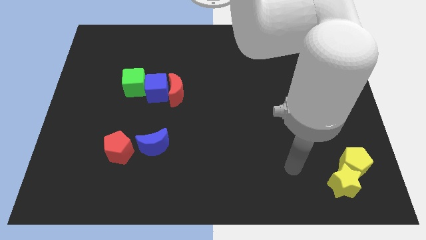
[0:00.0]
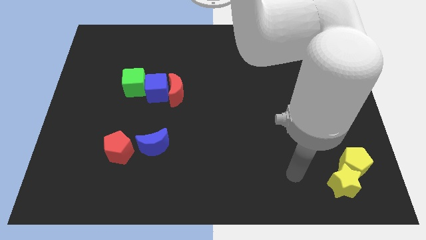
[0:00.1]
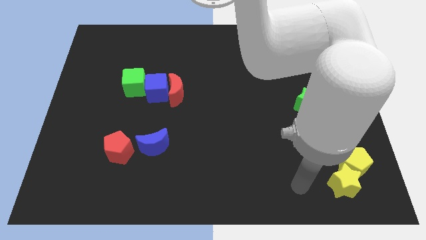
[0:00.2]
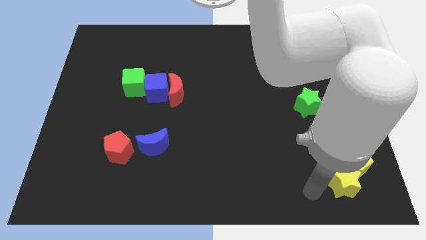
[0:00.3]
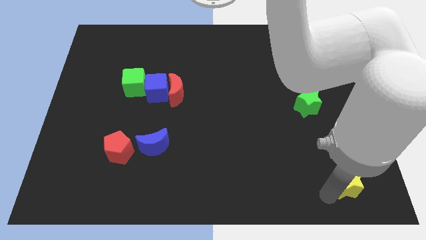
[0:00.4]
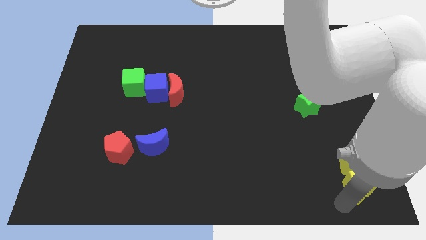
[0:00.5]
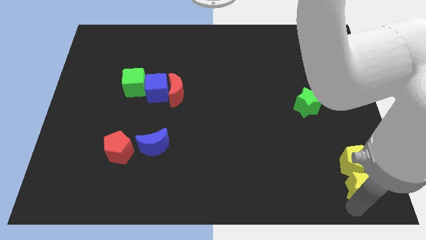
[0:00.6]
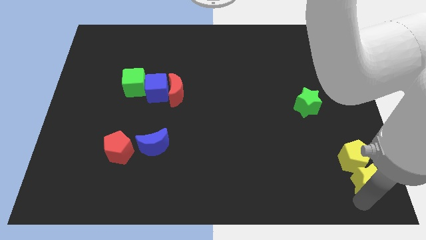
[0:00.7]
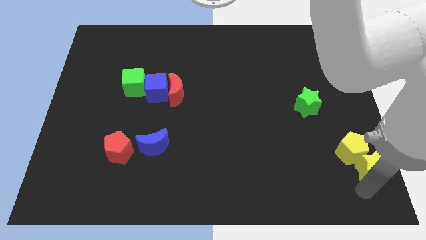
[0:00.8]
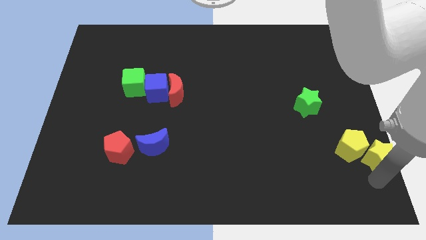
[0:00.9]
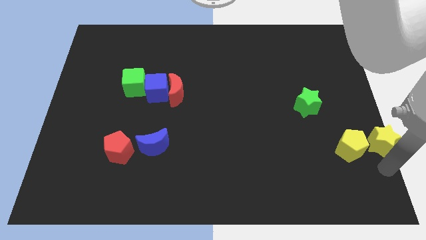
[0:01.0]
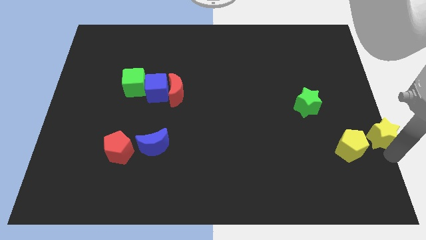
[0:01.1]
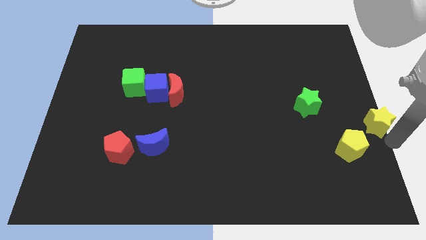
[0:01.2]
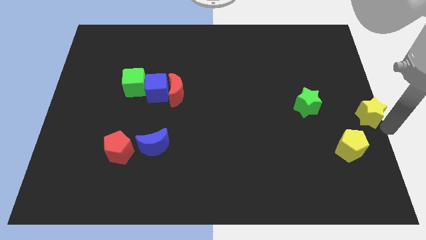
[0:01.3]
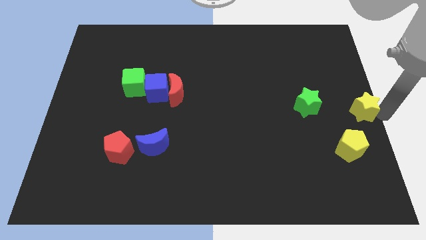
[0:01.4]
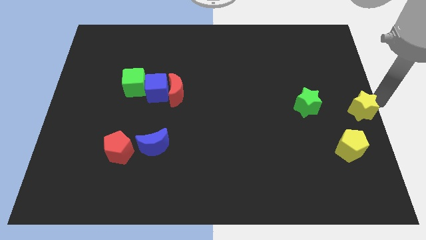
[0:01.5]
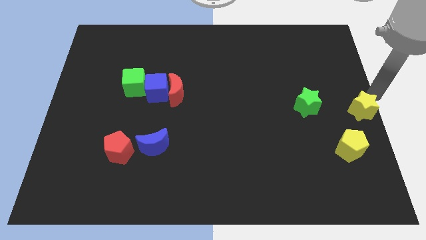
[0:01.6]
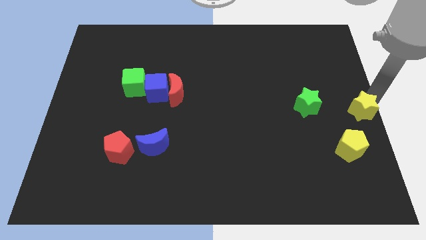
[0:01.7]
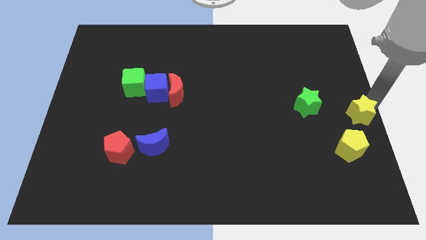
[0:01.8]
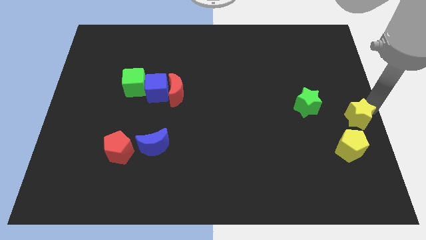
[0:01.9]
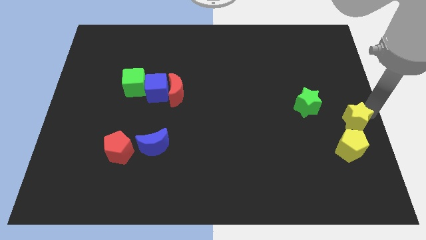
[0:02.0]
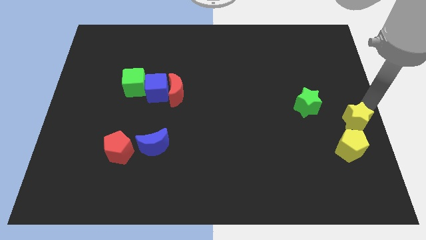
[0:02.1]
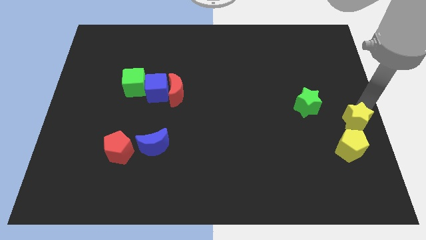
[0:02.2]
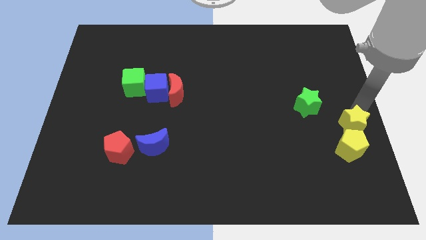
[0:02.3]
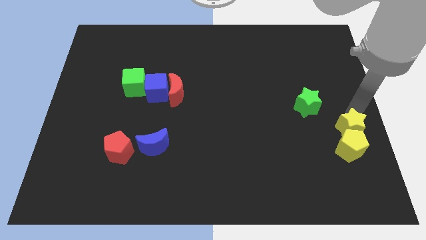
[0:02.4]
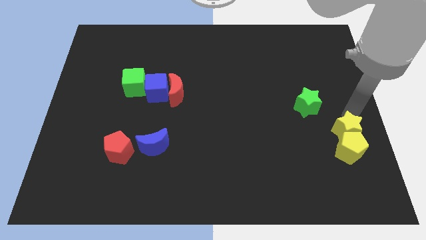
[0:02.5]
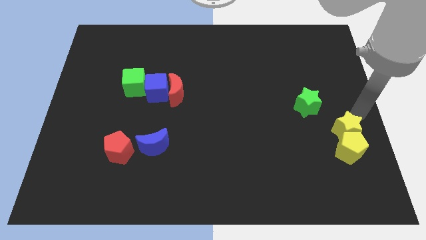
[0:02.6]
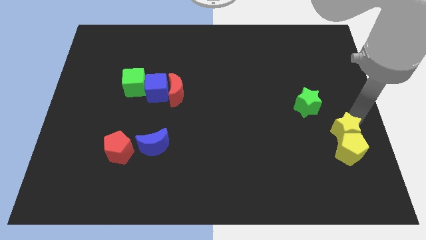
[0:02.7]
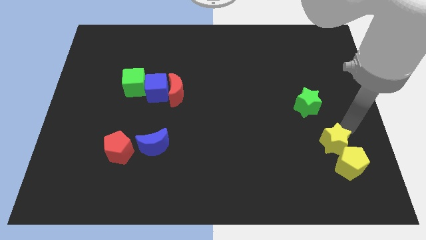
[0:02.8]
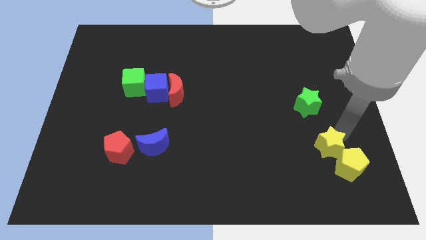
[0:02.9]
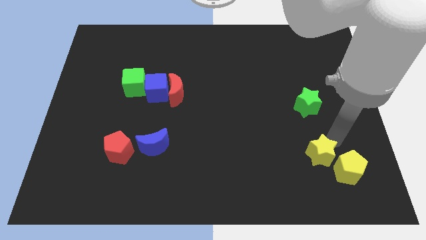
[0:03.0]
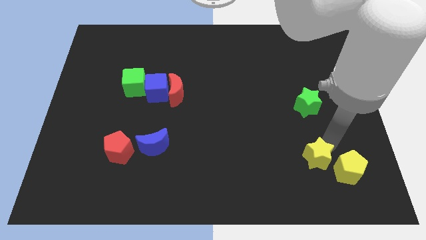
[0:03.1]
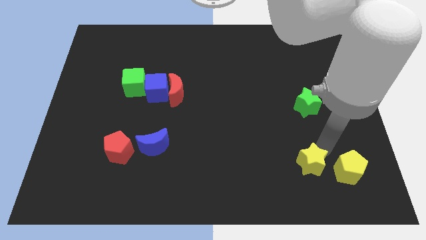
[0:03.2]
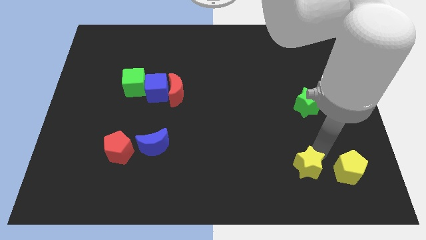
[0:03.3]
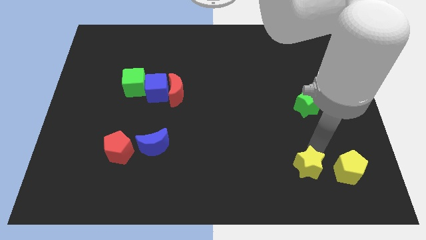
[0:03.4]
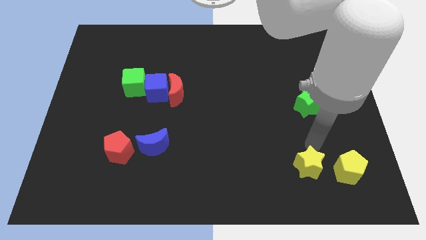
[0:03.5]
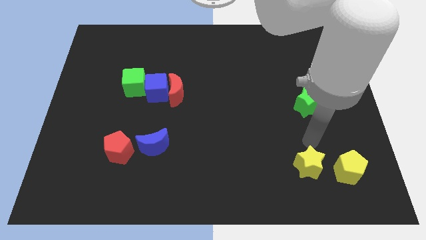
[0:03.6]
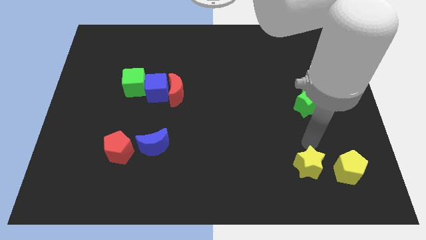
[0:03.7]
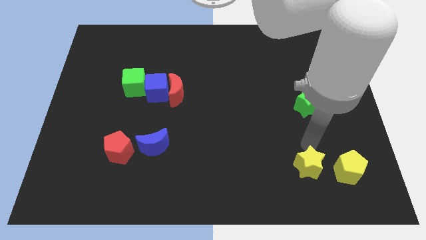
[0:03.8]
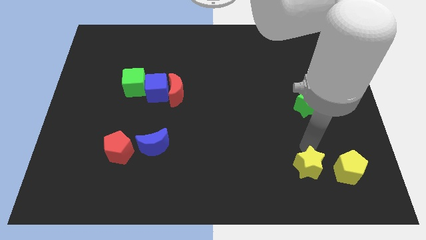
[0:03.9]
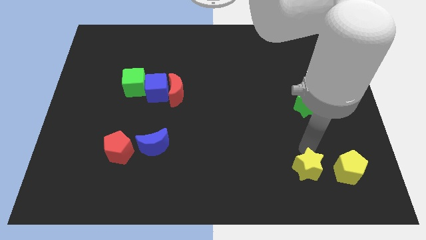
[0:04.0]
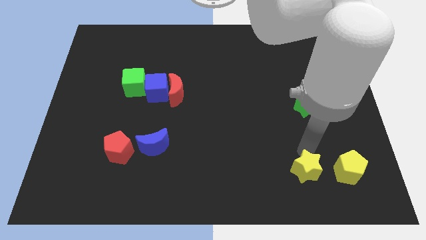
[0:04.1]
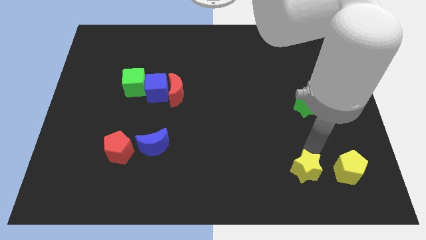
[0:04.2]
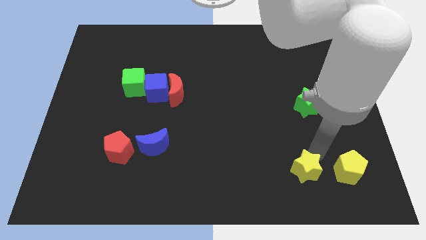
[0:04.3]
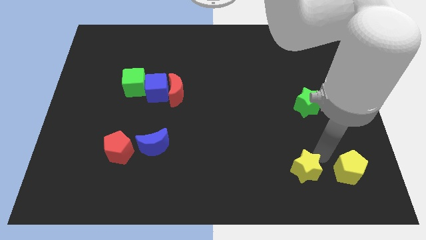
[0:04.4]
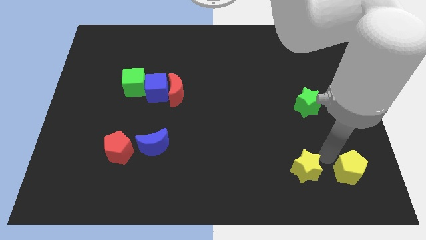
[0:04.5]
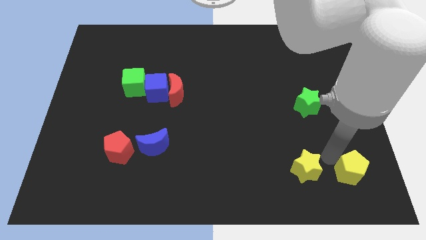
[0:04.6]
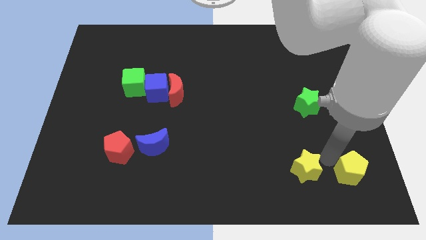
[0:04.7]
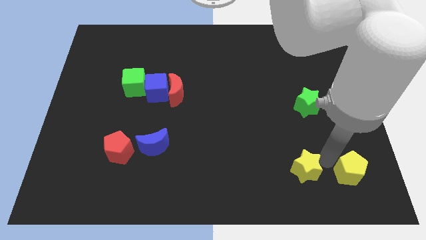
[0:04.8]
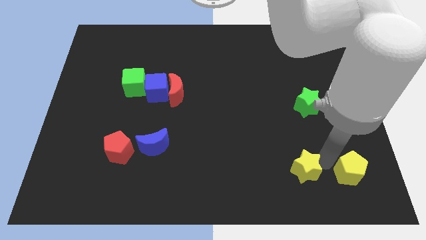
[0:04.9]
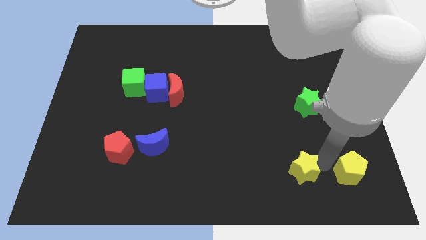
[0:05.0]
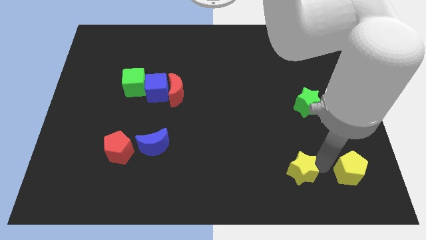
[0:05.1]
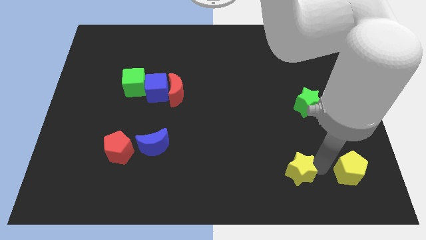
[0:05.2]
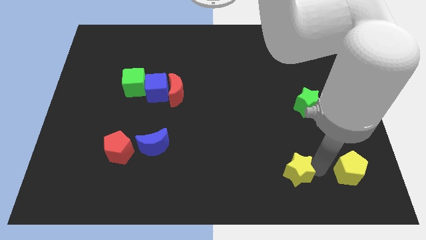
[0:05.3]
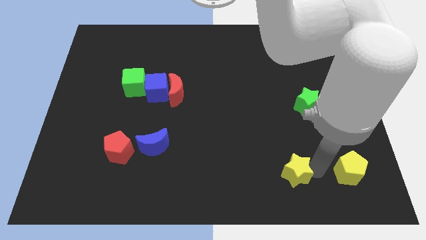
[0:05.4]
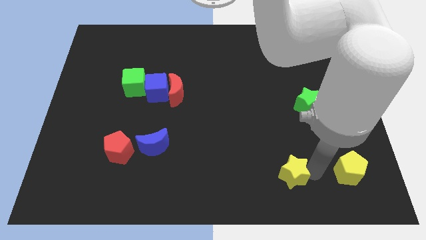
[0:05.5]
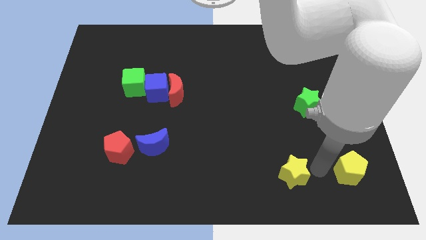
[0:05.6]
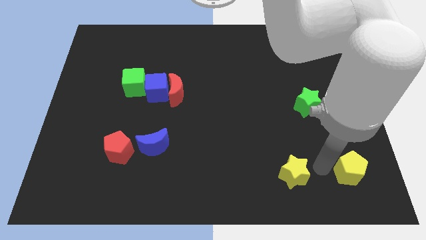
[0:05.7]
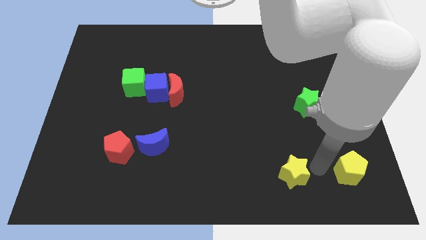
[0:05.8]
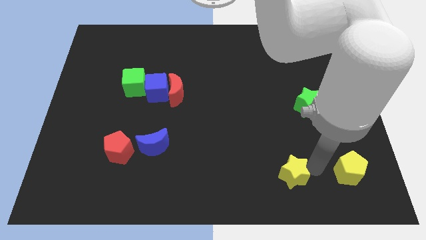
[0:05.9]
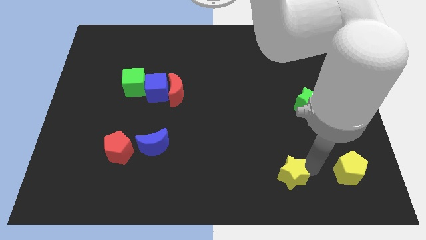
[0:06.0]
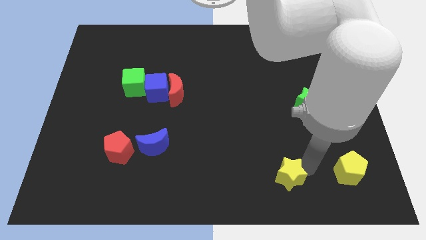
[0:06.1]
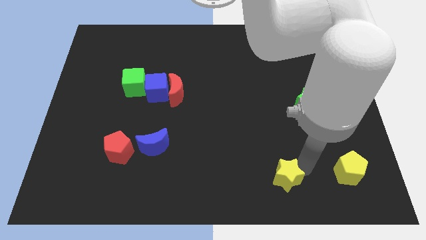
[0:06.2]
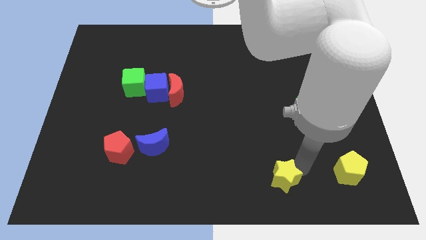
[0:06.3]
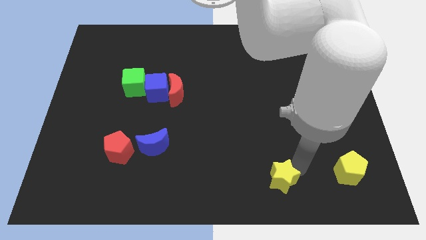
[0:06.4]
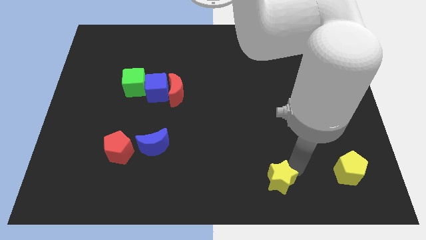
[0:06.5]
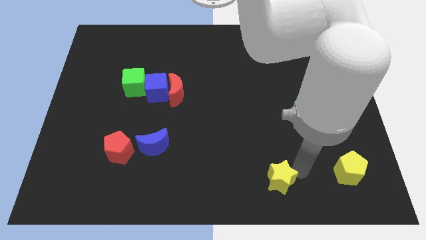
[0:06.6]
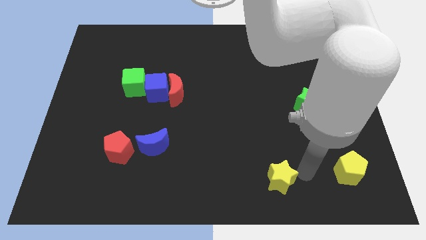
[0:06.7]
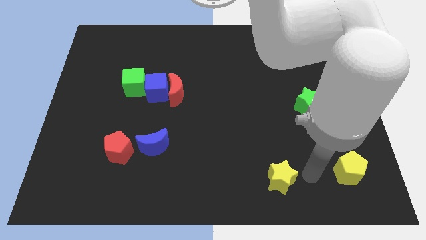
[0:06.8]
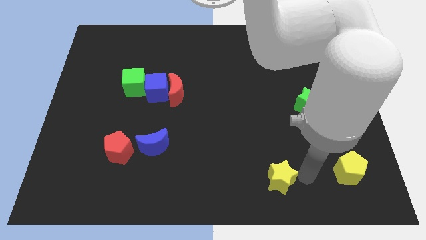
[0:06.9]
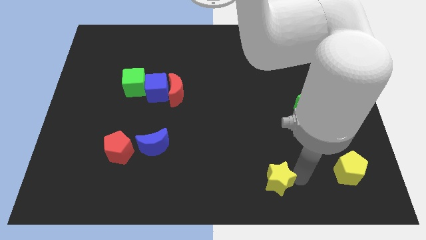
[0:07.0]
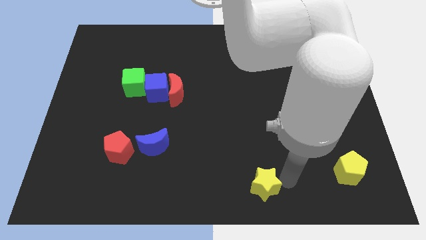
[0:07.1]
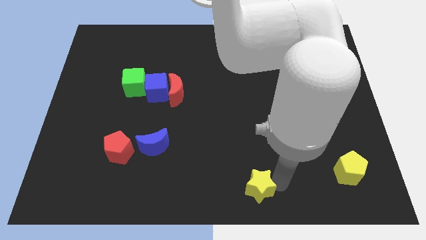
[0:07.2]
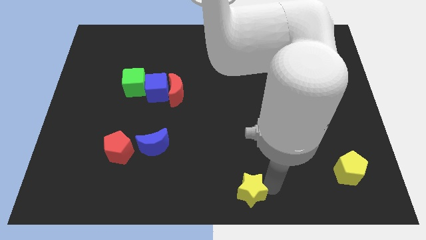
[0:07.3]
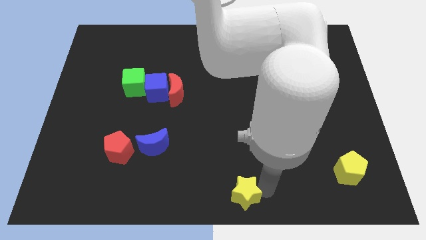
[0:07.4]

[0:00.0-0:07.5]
slide the yellow star left

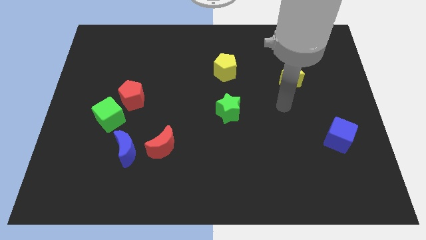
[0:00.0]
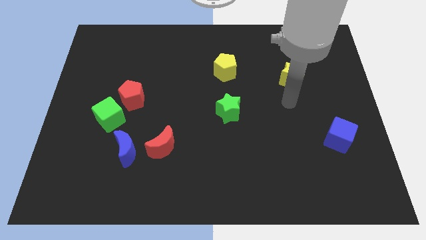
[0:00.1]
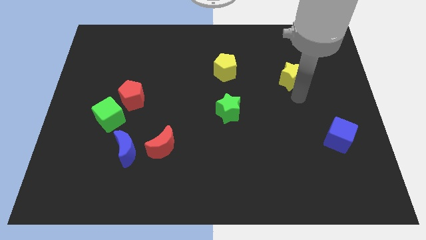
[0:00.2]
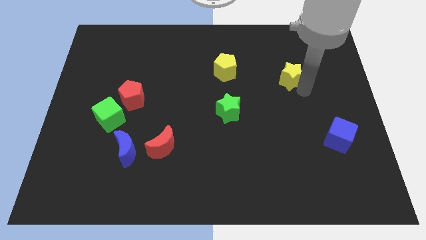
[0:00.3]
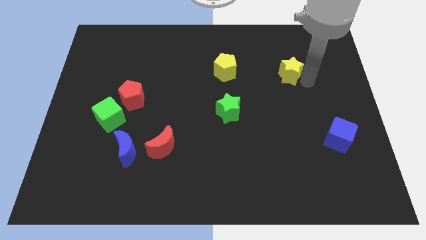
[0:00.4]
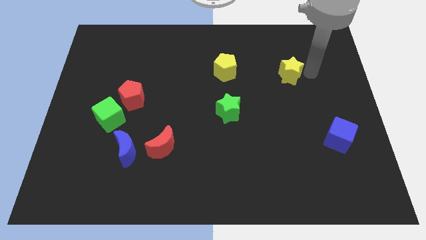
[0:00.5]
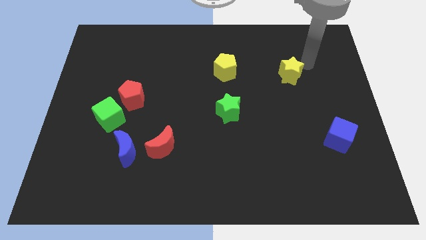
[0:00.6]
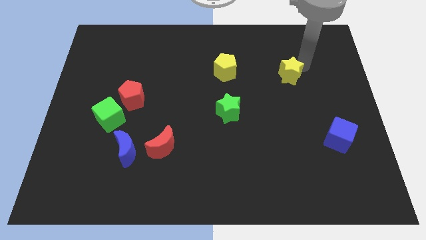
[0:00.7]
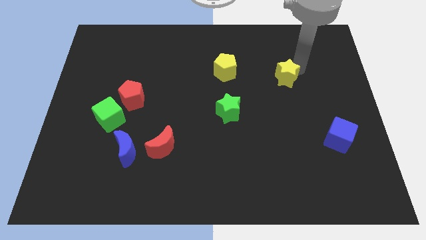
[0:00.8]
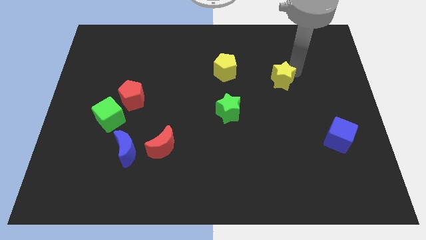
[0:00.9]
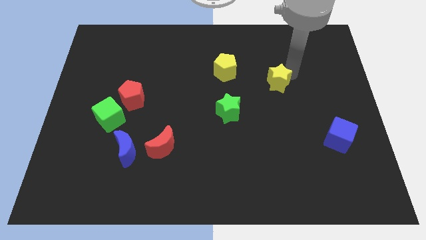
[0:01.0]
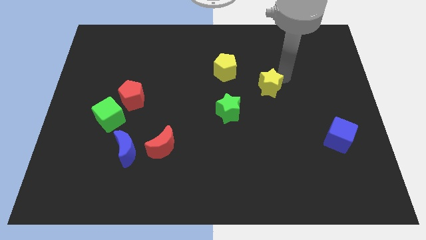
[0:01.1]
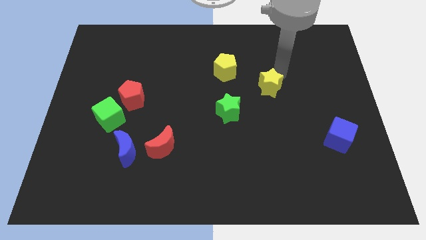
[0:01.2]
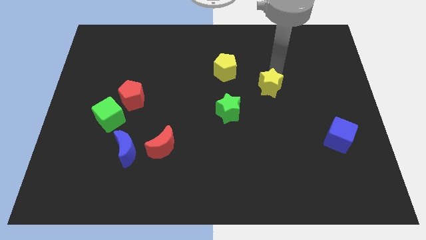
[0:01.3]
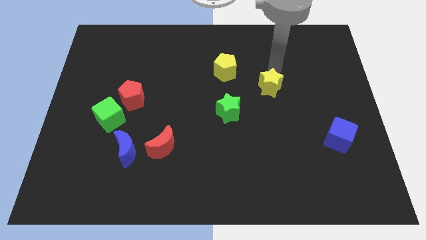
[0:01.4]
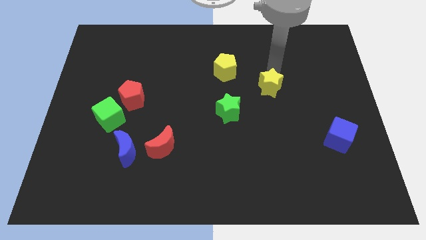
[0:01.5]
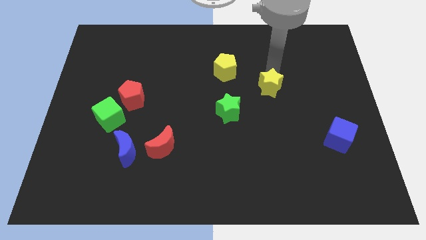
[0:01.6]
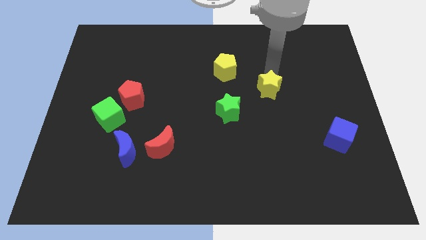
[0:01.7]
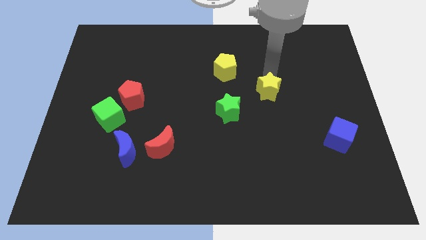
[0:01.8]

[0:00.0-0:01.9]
push the yellow star slightly down and then to the left
